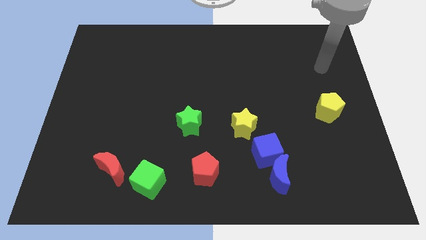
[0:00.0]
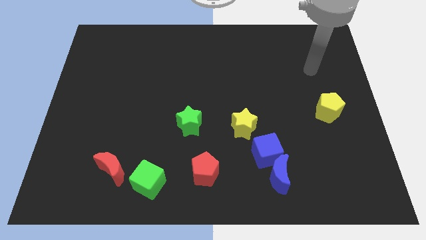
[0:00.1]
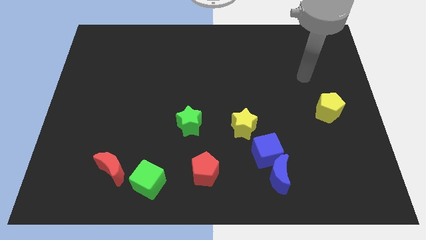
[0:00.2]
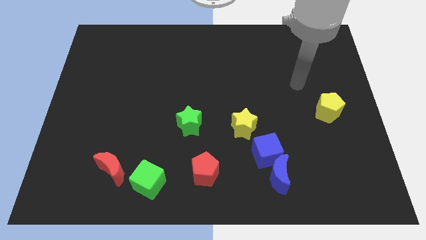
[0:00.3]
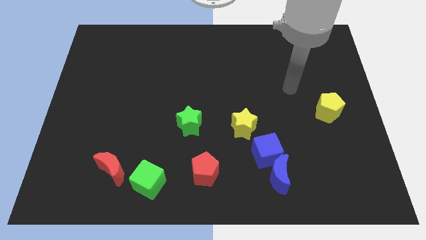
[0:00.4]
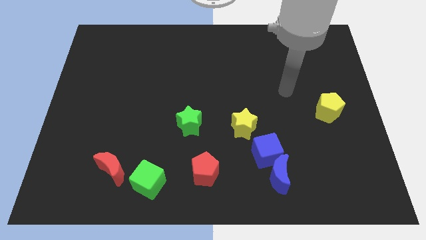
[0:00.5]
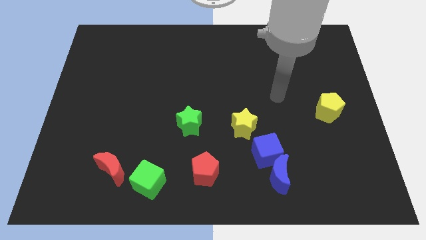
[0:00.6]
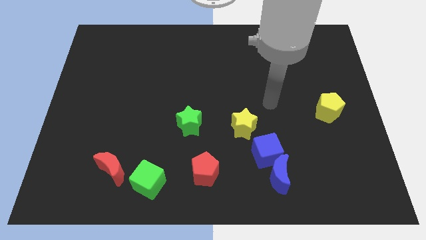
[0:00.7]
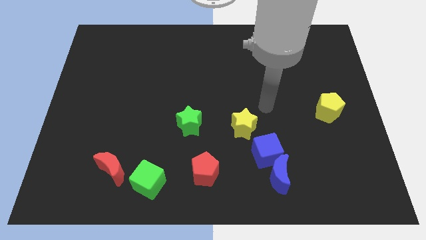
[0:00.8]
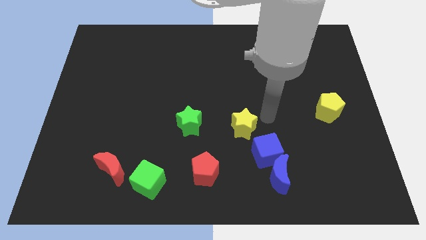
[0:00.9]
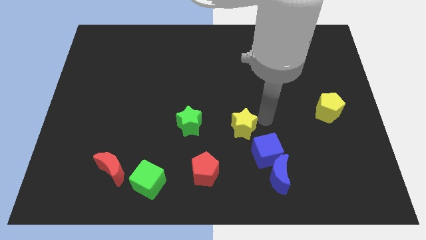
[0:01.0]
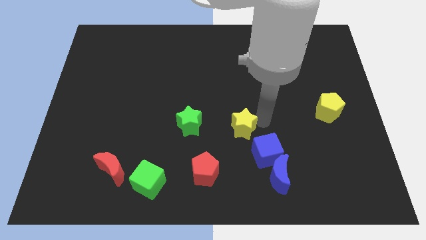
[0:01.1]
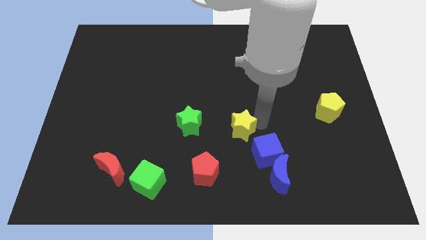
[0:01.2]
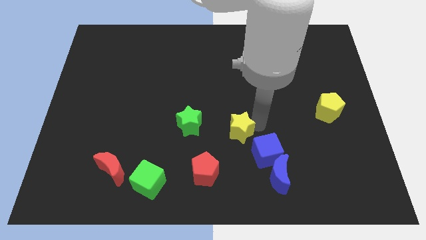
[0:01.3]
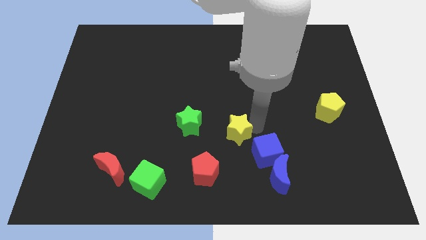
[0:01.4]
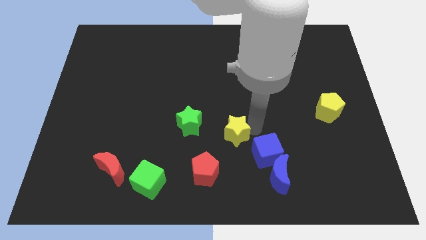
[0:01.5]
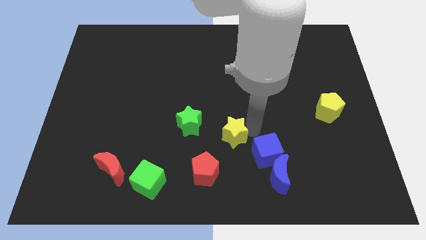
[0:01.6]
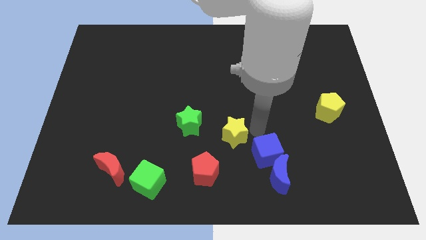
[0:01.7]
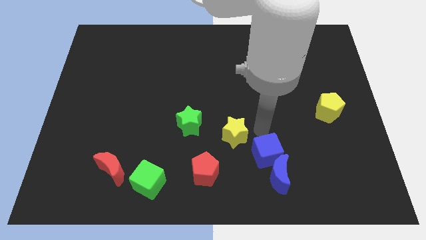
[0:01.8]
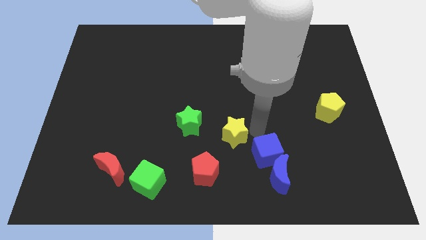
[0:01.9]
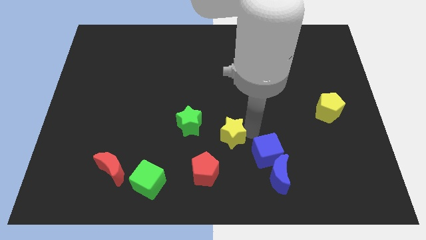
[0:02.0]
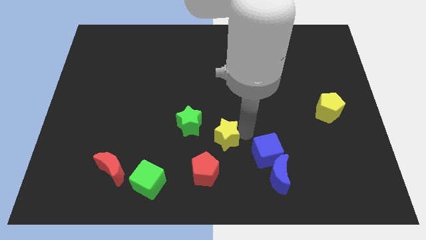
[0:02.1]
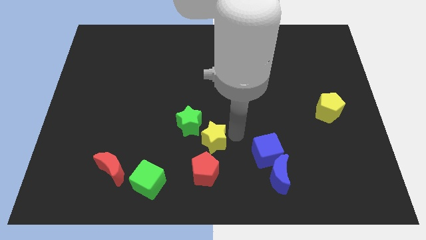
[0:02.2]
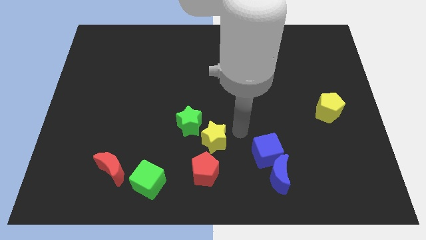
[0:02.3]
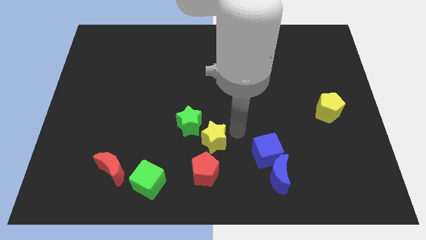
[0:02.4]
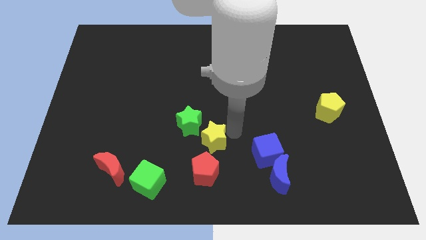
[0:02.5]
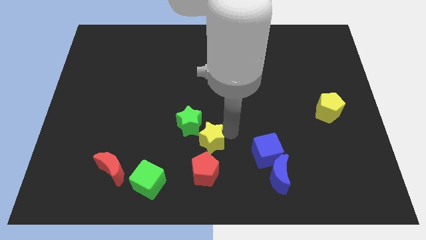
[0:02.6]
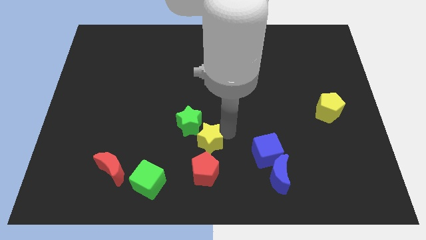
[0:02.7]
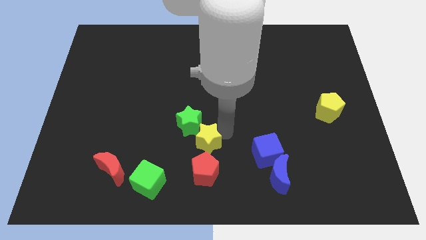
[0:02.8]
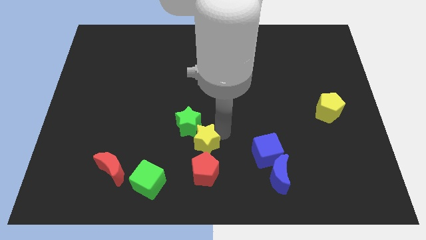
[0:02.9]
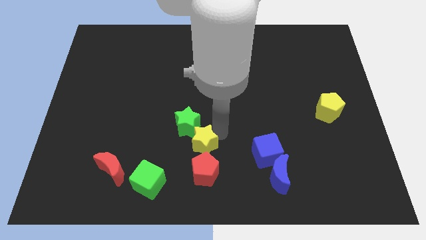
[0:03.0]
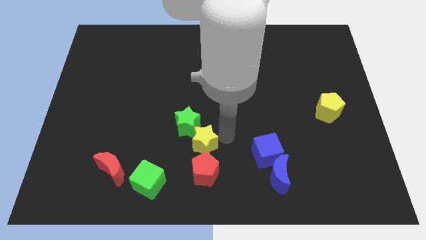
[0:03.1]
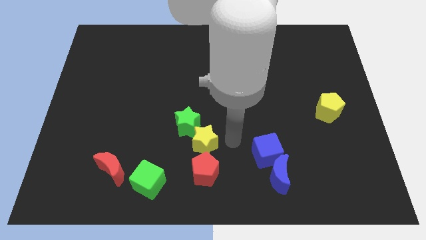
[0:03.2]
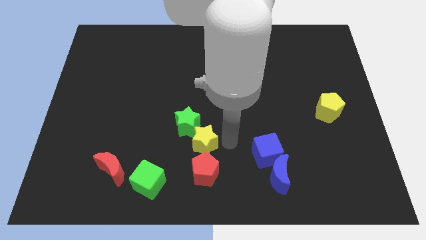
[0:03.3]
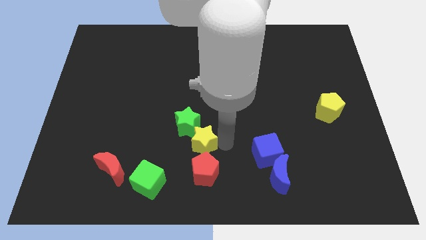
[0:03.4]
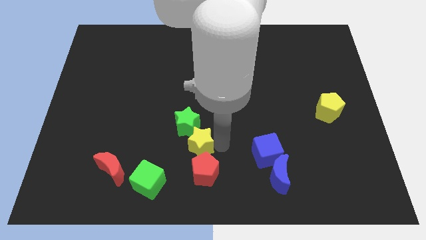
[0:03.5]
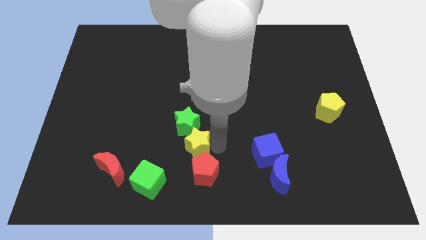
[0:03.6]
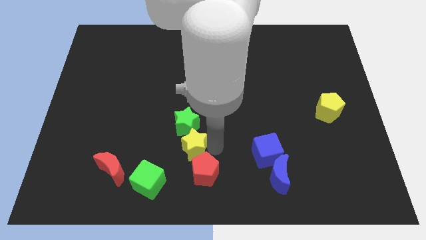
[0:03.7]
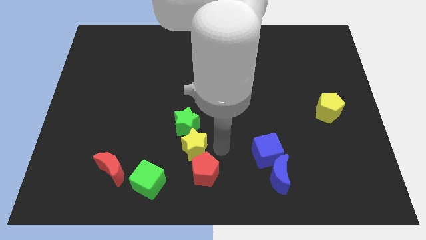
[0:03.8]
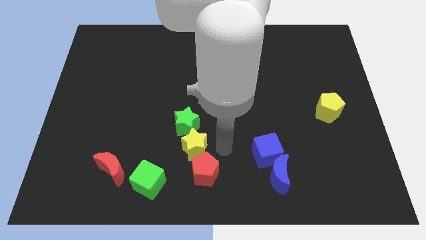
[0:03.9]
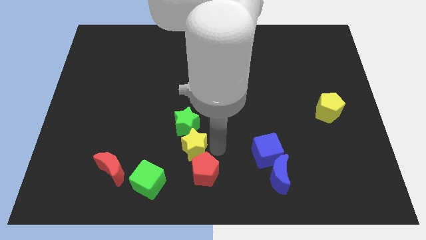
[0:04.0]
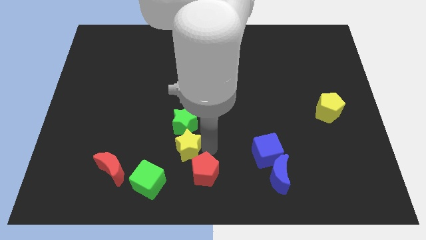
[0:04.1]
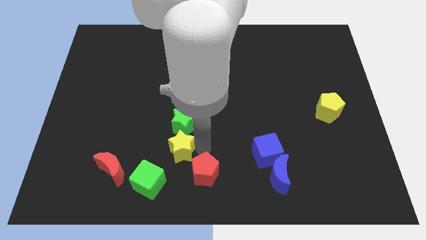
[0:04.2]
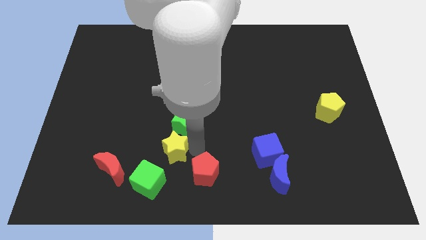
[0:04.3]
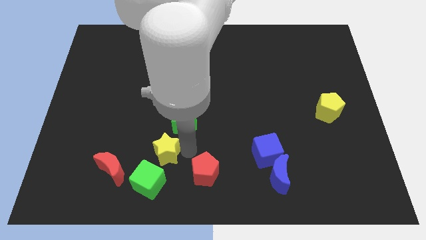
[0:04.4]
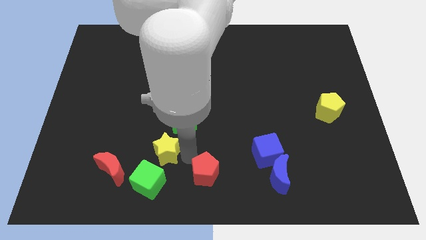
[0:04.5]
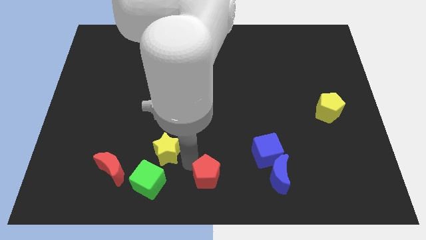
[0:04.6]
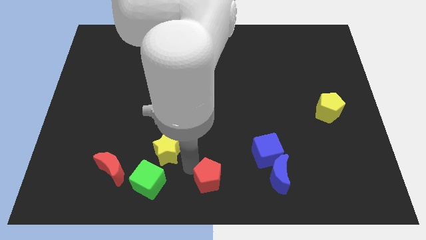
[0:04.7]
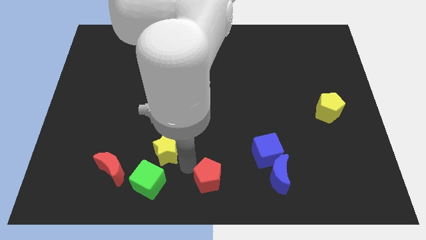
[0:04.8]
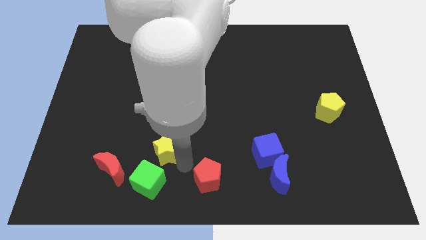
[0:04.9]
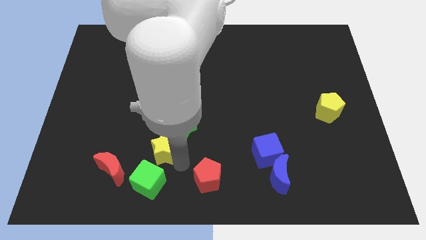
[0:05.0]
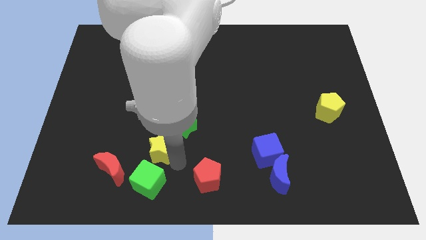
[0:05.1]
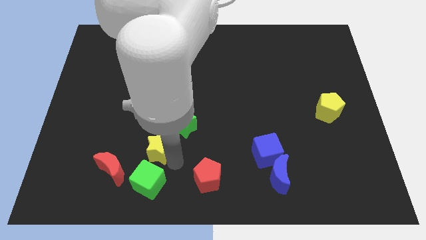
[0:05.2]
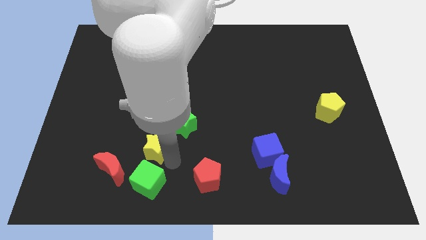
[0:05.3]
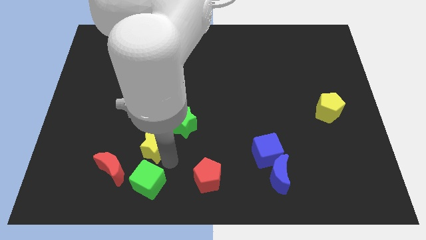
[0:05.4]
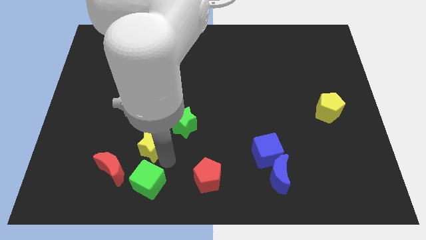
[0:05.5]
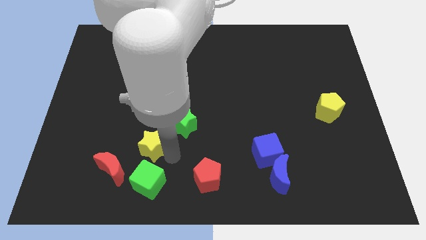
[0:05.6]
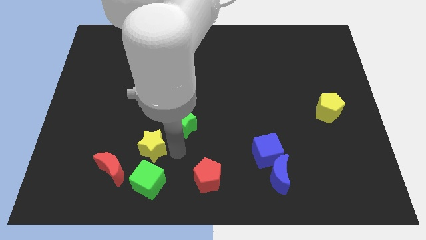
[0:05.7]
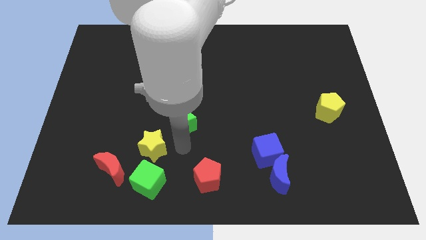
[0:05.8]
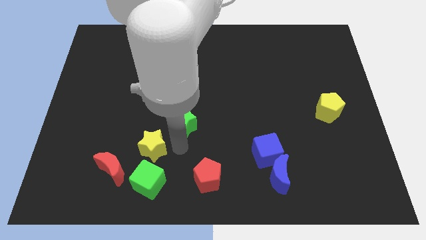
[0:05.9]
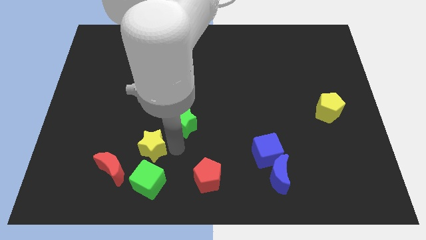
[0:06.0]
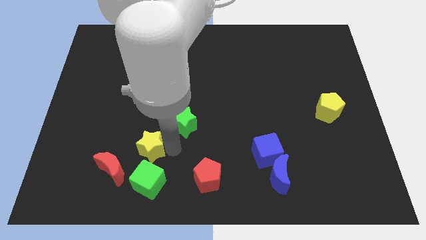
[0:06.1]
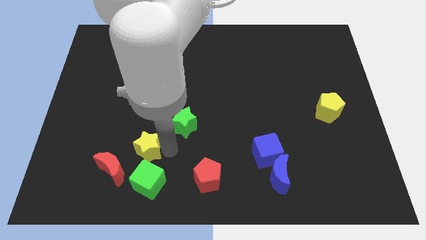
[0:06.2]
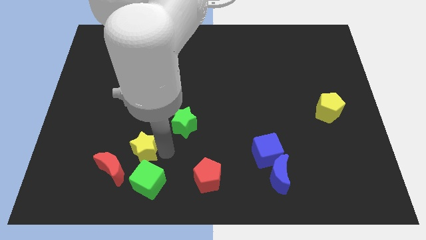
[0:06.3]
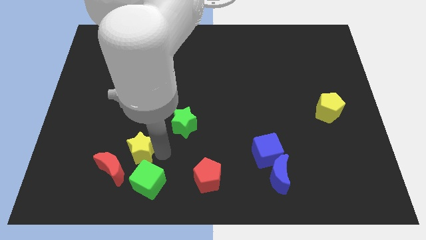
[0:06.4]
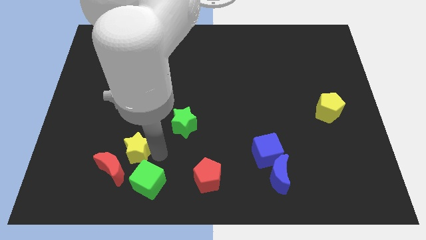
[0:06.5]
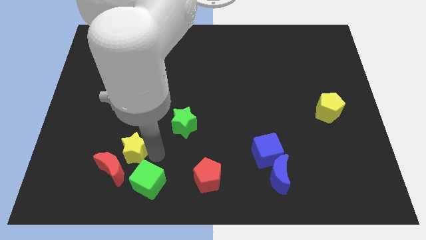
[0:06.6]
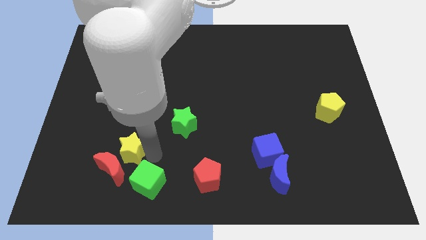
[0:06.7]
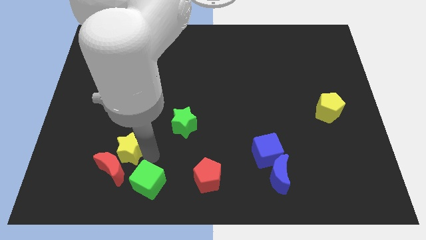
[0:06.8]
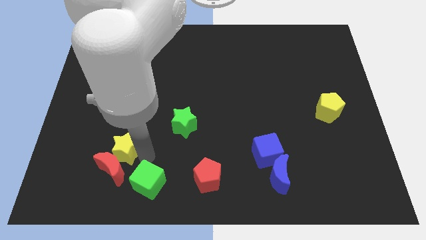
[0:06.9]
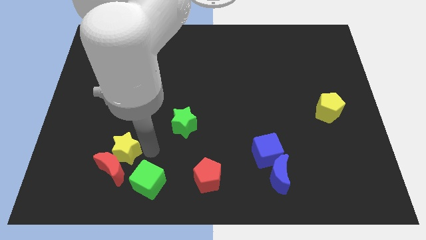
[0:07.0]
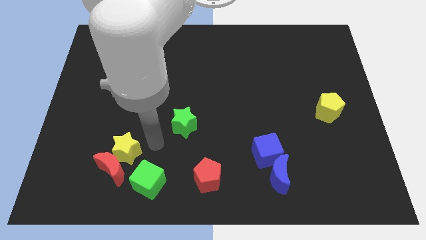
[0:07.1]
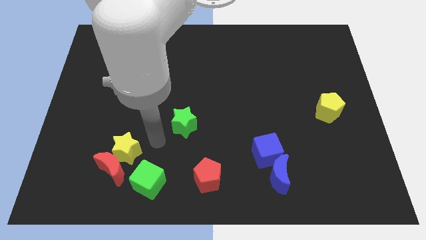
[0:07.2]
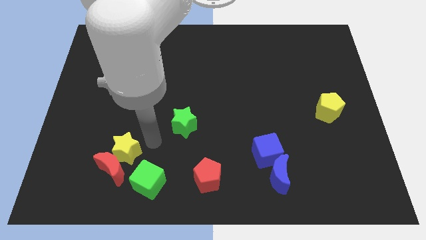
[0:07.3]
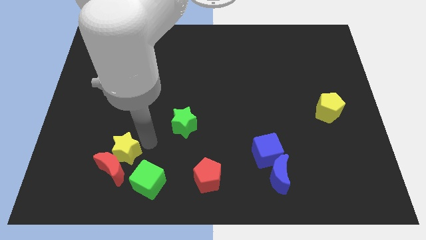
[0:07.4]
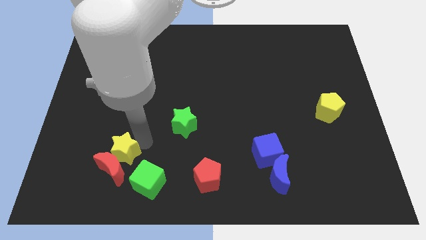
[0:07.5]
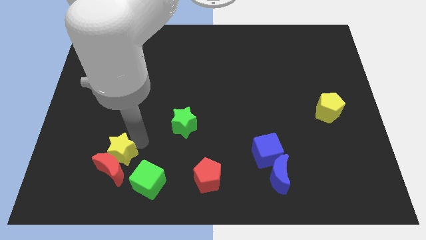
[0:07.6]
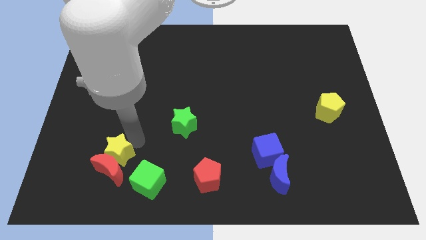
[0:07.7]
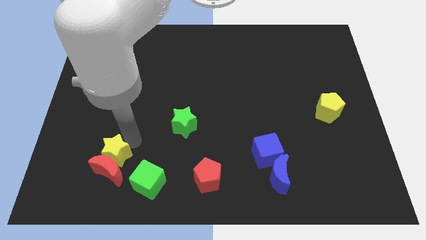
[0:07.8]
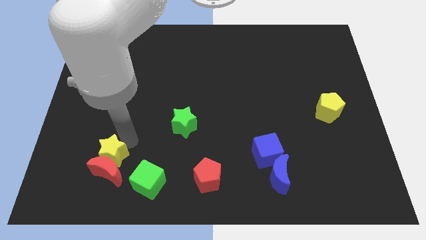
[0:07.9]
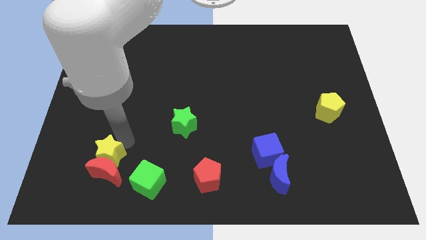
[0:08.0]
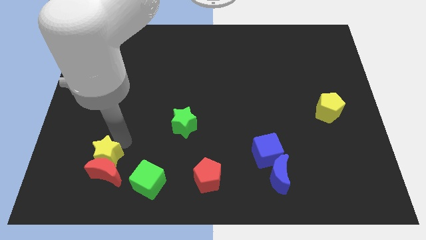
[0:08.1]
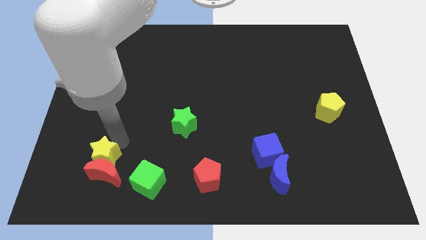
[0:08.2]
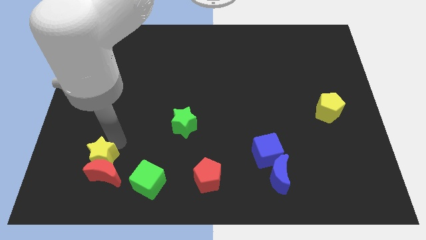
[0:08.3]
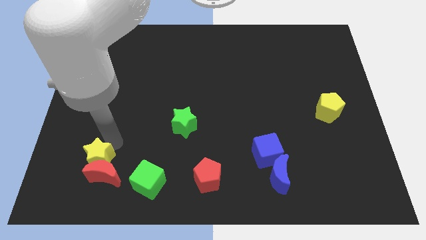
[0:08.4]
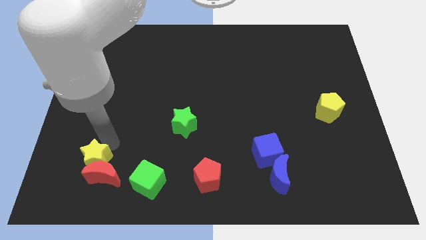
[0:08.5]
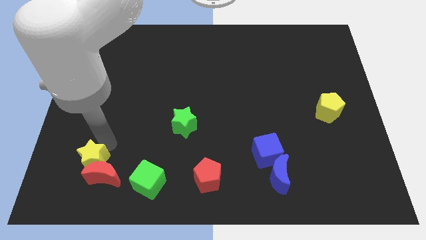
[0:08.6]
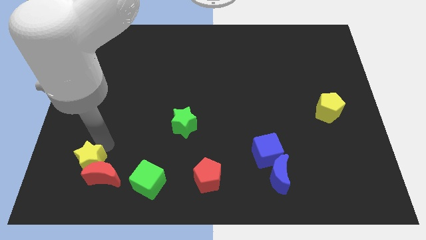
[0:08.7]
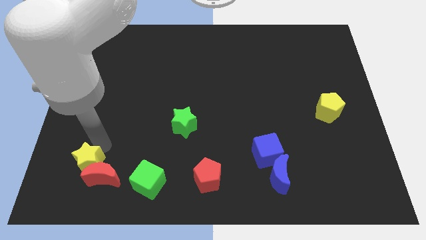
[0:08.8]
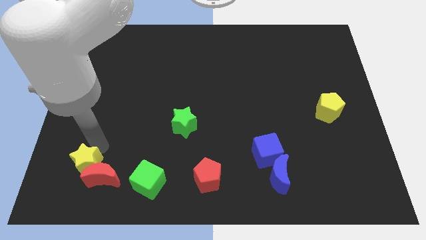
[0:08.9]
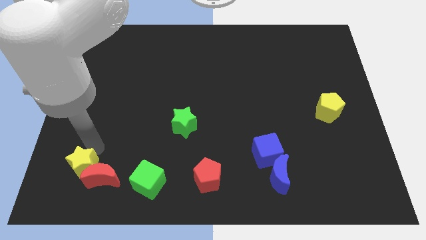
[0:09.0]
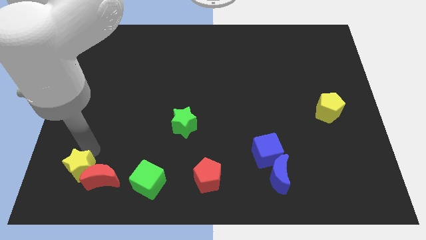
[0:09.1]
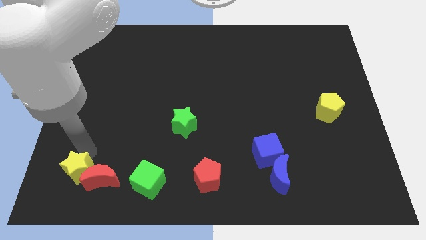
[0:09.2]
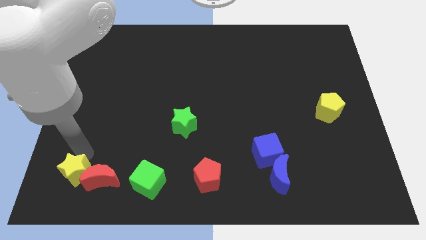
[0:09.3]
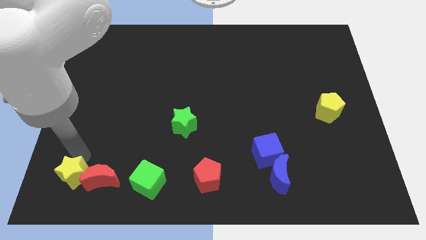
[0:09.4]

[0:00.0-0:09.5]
slide the yellow star to the bottom left corner
